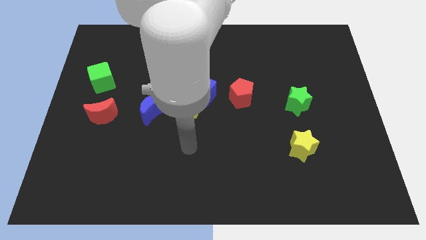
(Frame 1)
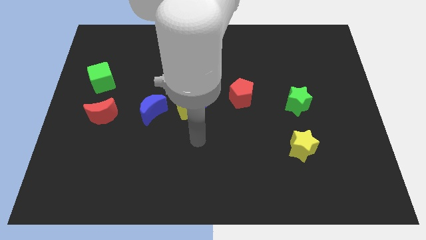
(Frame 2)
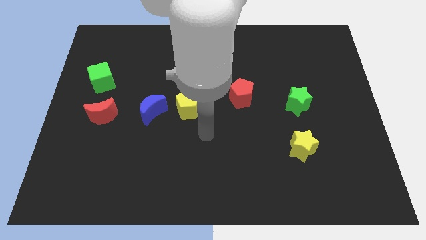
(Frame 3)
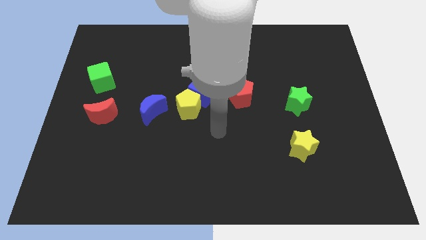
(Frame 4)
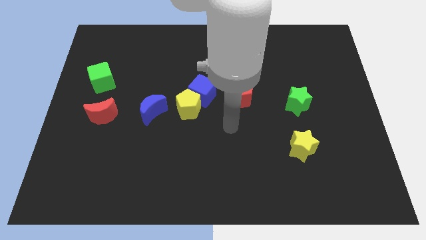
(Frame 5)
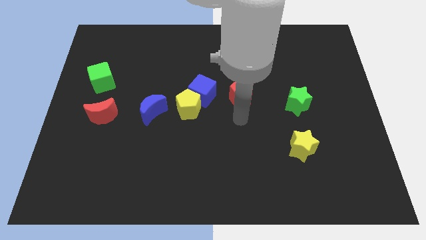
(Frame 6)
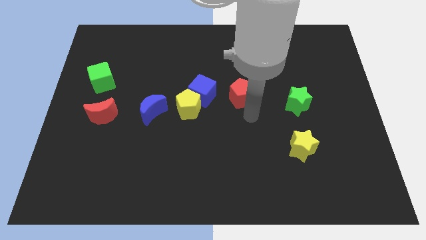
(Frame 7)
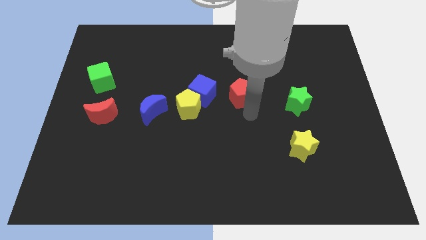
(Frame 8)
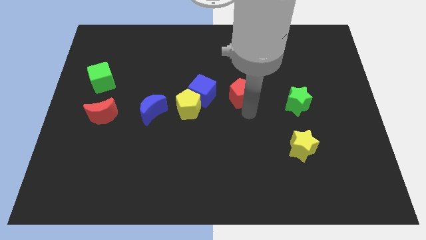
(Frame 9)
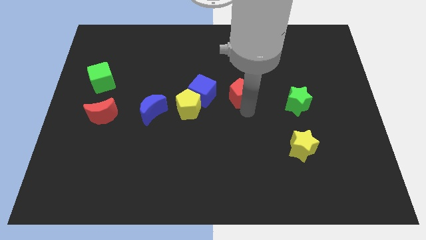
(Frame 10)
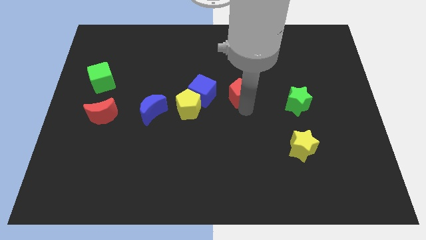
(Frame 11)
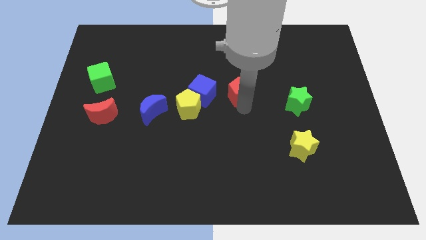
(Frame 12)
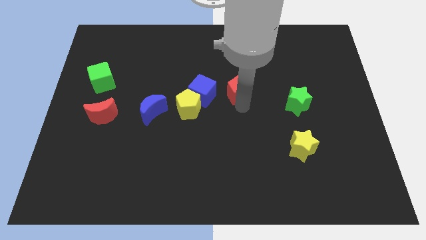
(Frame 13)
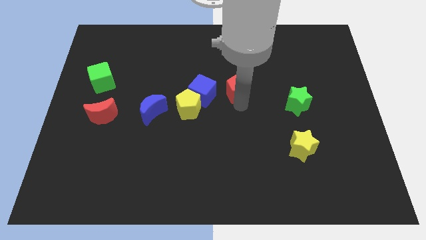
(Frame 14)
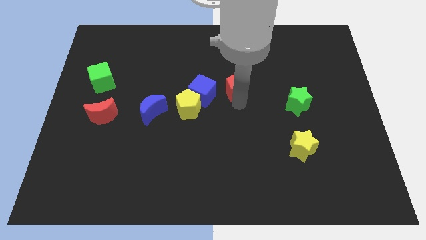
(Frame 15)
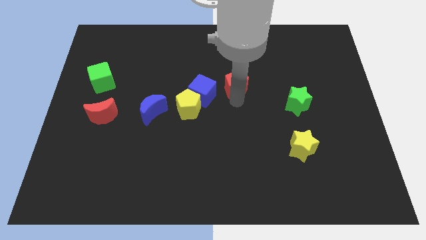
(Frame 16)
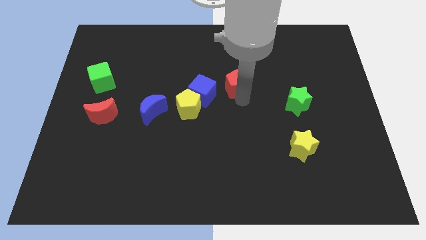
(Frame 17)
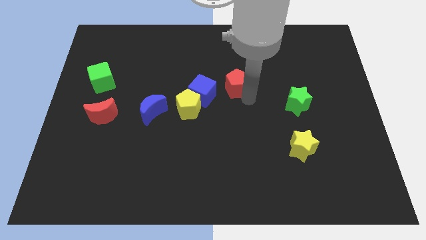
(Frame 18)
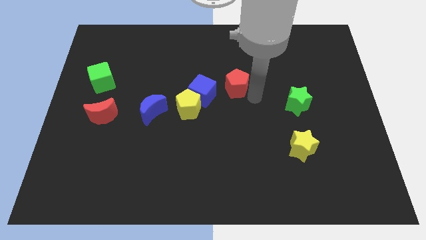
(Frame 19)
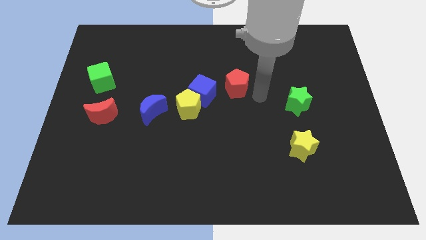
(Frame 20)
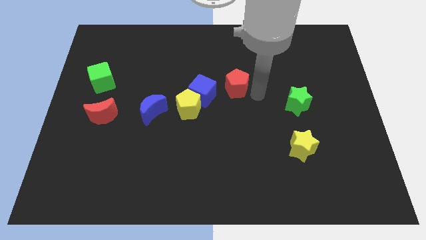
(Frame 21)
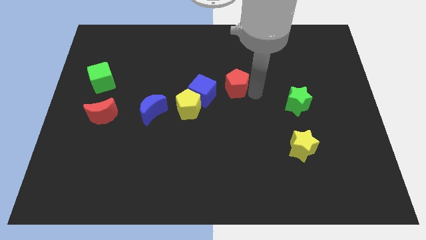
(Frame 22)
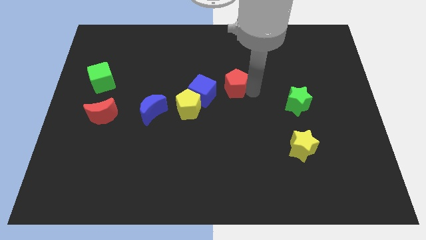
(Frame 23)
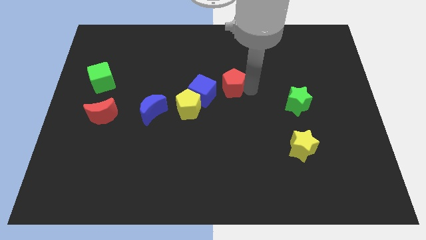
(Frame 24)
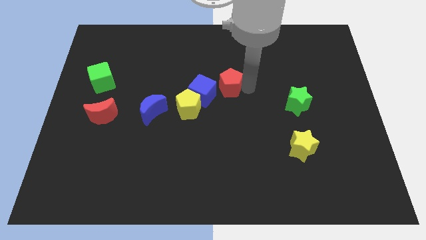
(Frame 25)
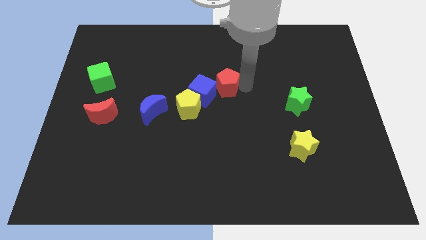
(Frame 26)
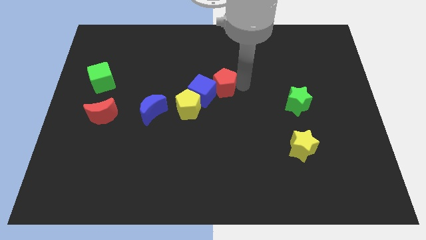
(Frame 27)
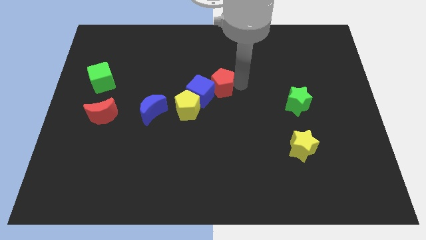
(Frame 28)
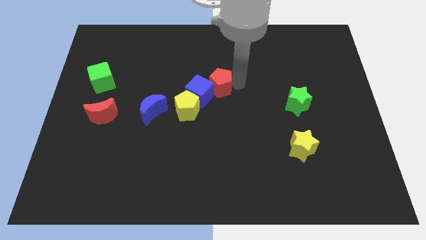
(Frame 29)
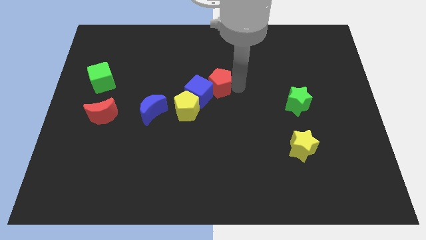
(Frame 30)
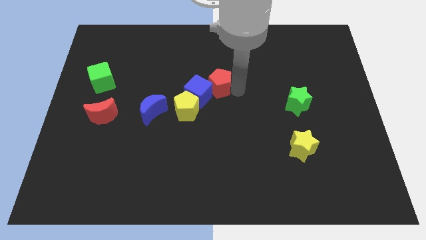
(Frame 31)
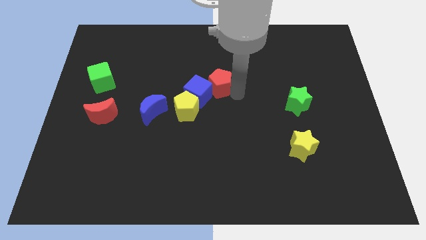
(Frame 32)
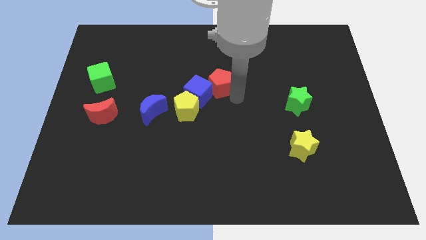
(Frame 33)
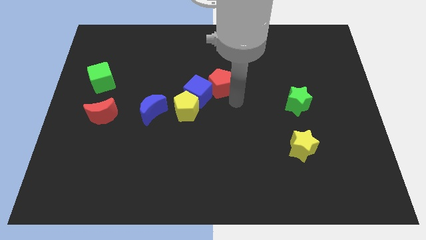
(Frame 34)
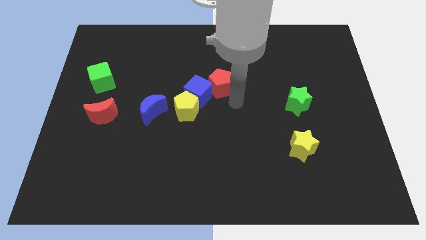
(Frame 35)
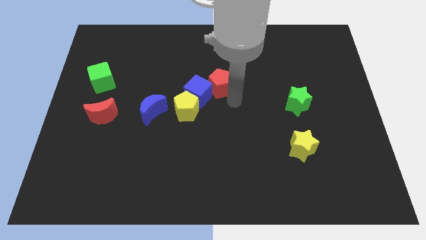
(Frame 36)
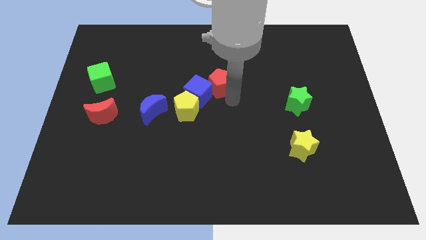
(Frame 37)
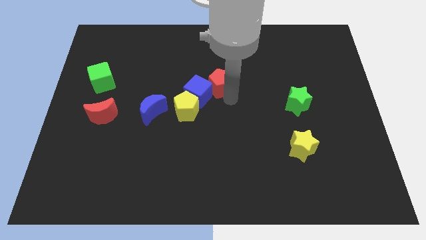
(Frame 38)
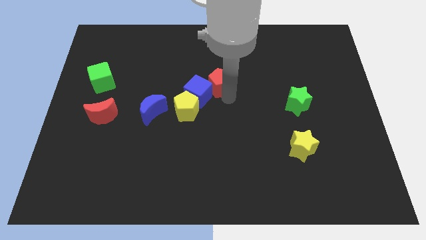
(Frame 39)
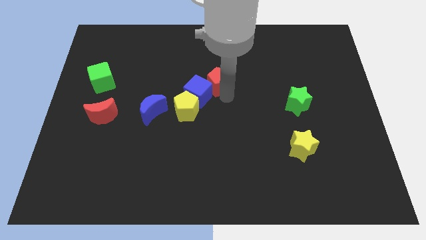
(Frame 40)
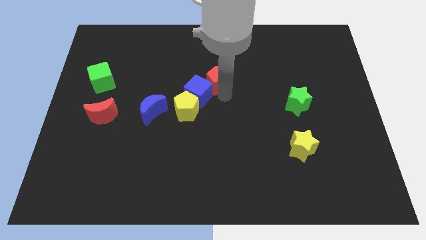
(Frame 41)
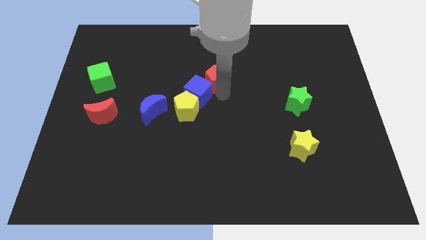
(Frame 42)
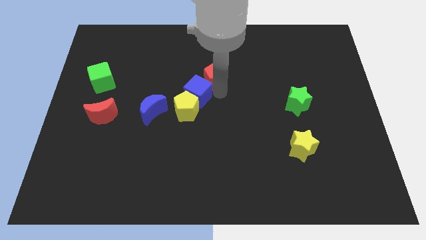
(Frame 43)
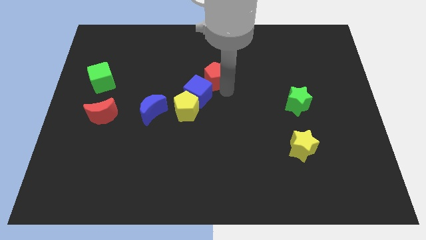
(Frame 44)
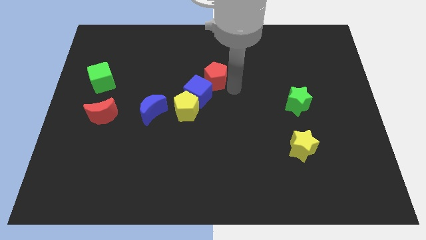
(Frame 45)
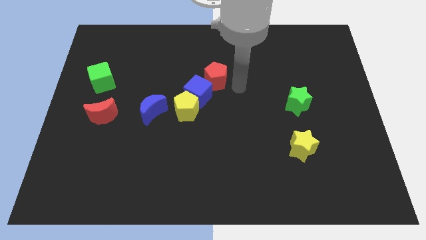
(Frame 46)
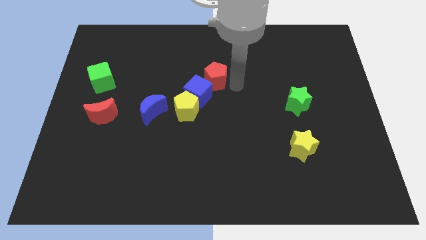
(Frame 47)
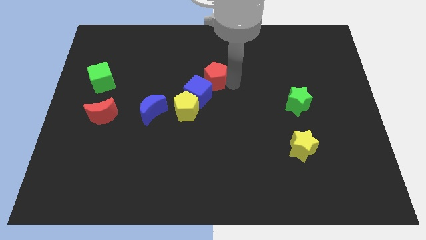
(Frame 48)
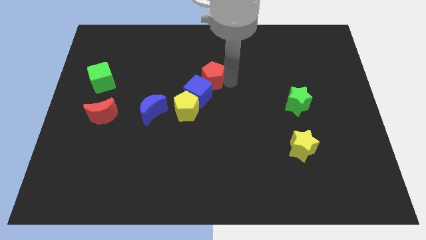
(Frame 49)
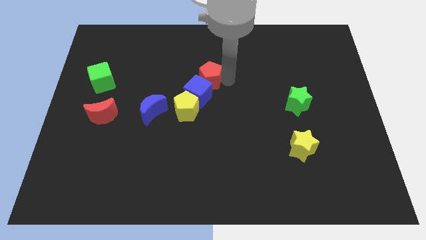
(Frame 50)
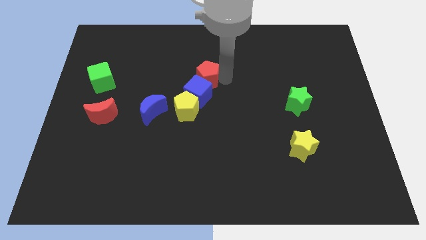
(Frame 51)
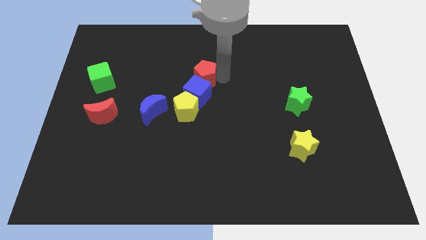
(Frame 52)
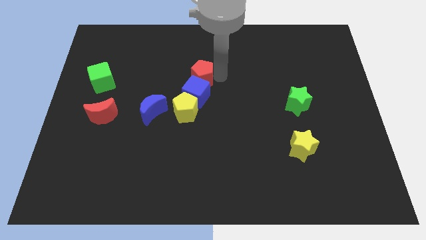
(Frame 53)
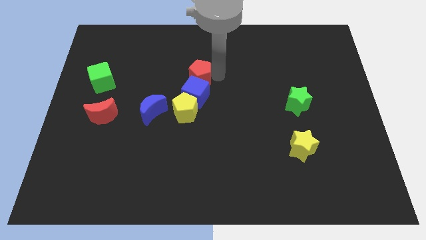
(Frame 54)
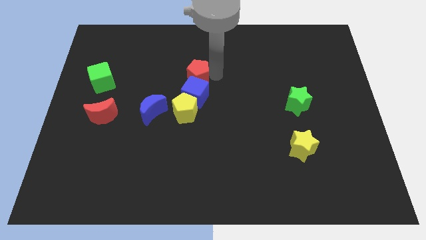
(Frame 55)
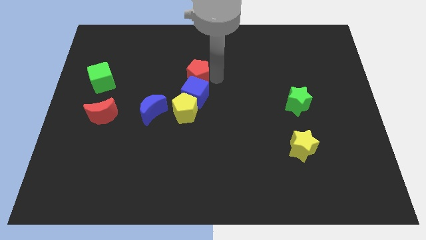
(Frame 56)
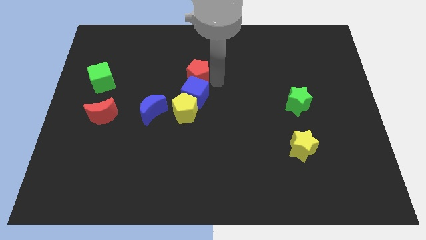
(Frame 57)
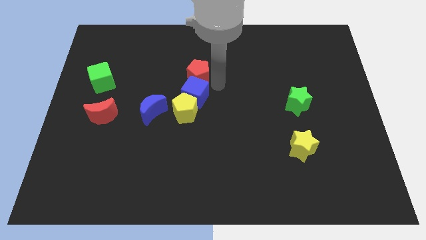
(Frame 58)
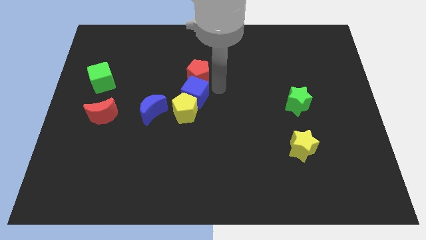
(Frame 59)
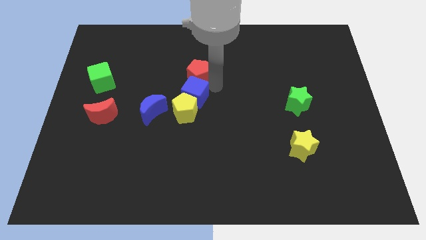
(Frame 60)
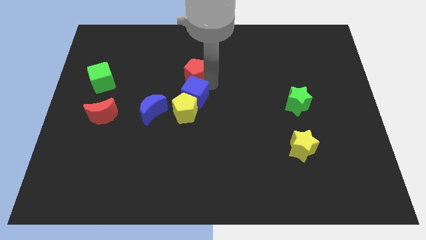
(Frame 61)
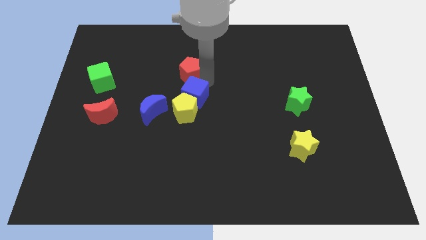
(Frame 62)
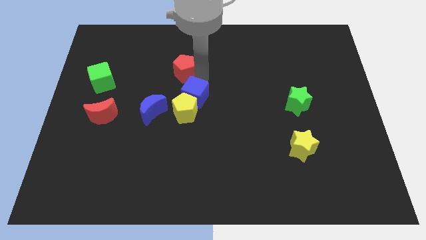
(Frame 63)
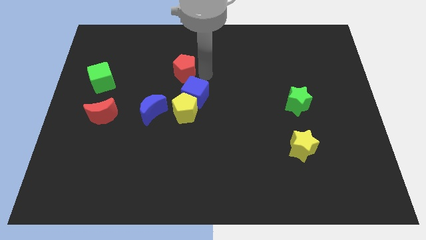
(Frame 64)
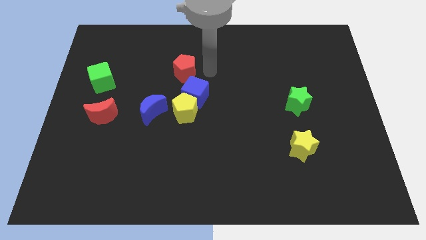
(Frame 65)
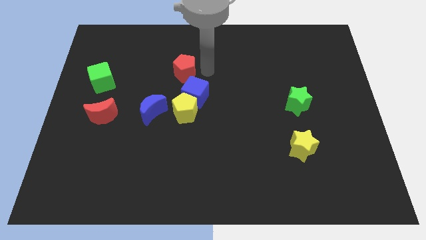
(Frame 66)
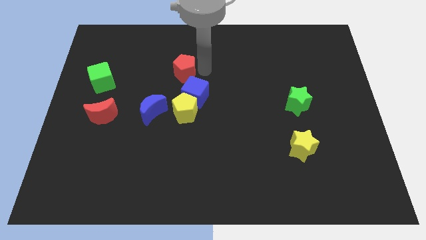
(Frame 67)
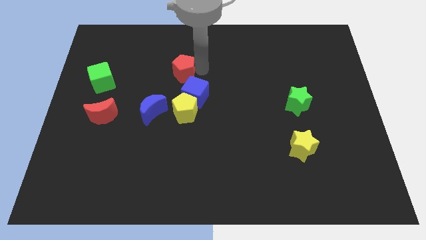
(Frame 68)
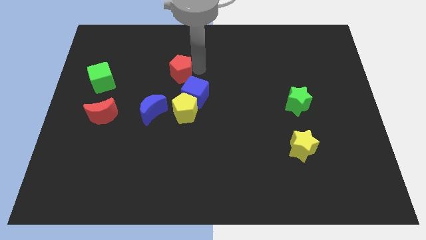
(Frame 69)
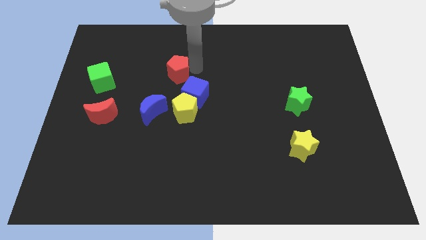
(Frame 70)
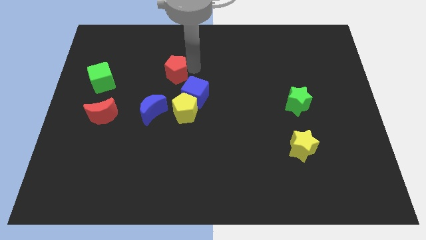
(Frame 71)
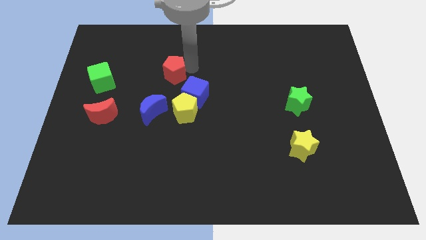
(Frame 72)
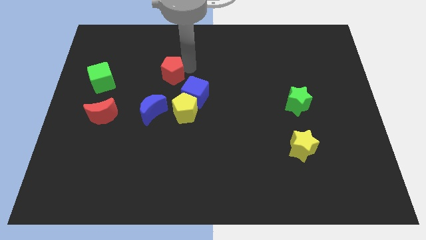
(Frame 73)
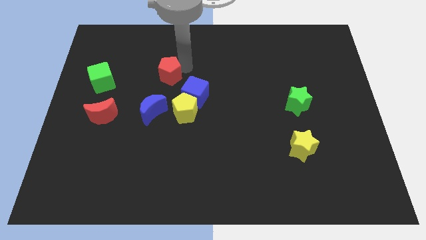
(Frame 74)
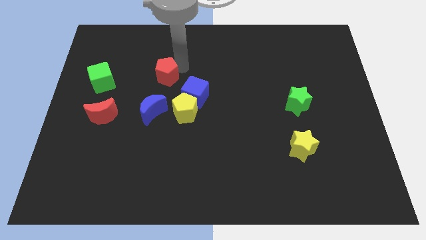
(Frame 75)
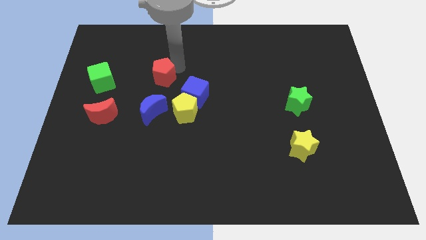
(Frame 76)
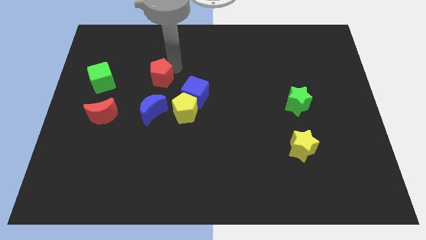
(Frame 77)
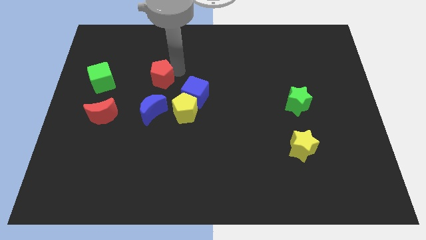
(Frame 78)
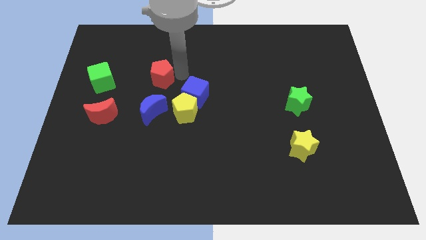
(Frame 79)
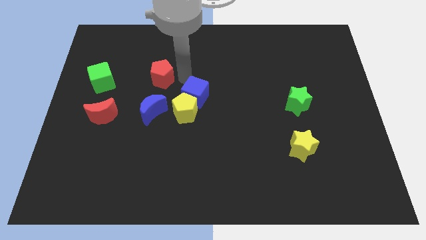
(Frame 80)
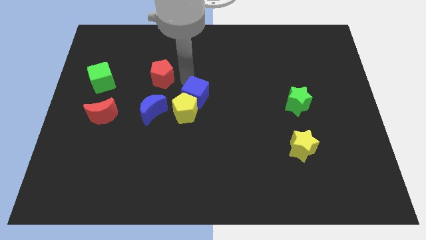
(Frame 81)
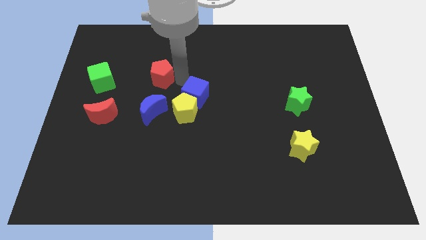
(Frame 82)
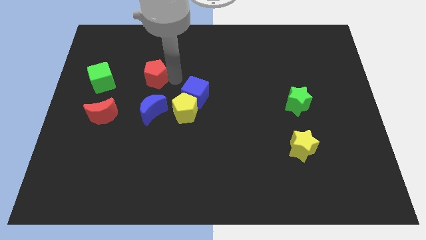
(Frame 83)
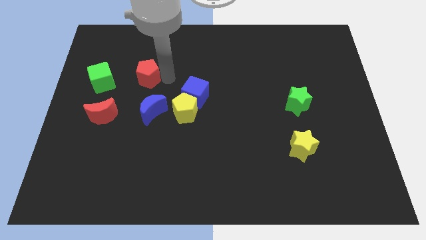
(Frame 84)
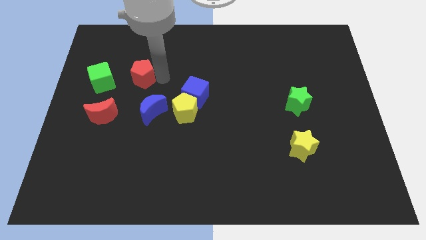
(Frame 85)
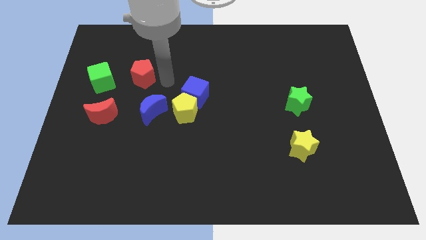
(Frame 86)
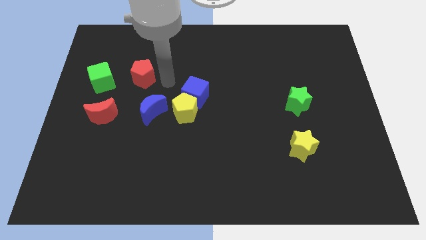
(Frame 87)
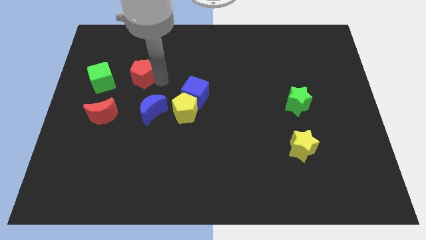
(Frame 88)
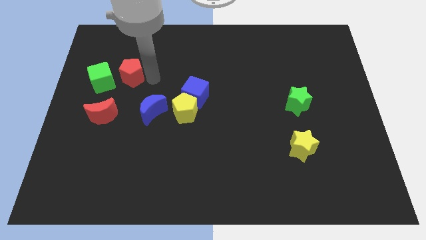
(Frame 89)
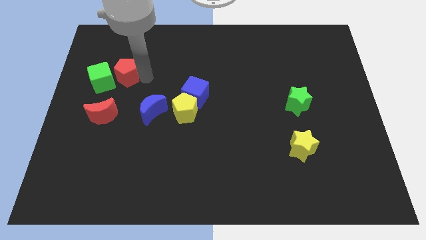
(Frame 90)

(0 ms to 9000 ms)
push the red pentagon above the red moon
